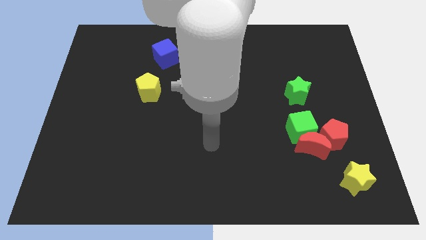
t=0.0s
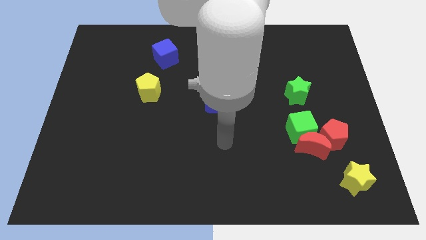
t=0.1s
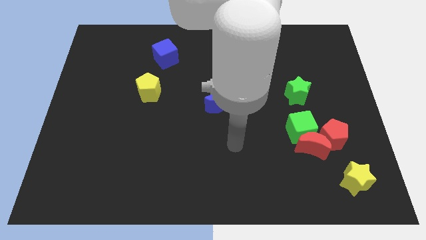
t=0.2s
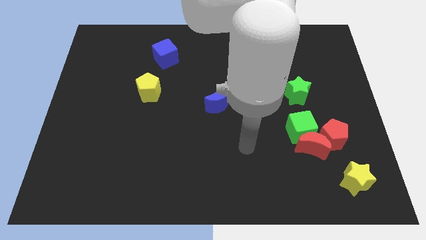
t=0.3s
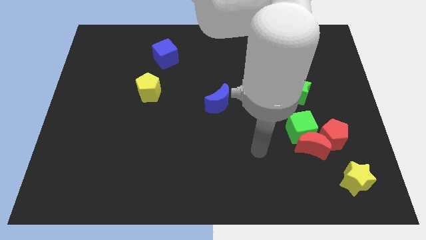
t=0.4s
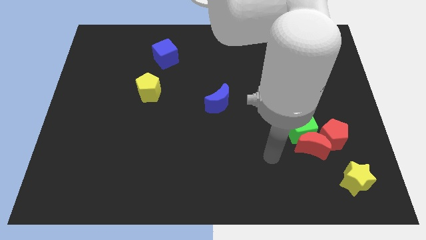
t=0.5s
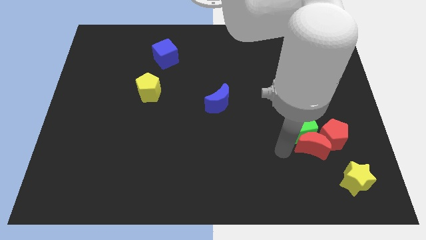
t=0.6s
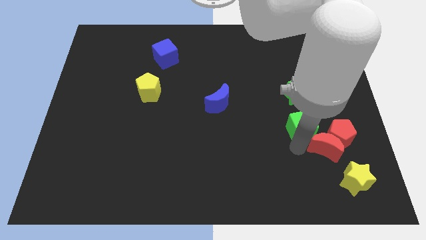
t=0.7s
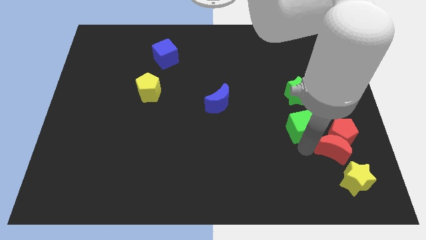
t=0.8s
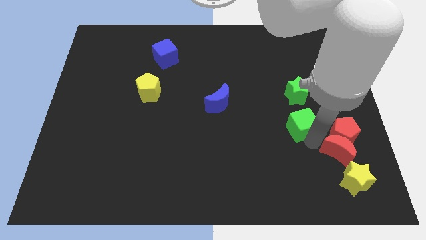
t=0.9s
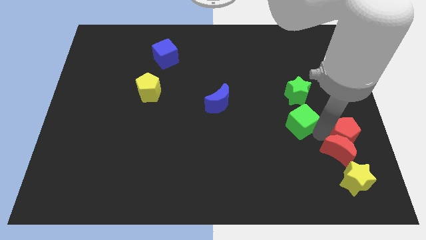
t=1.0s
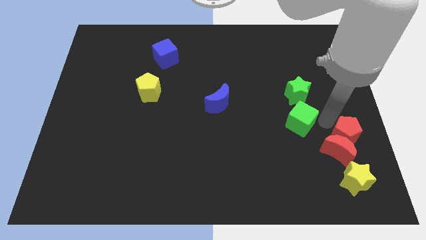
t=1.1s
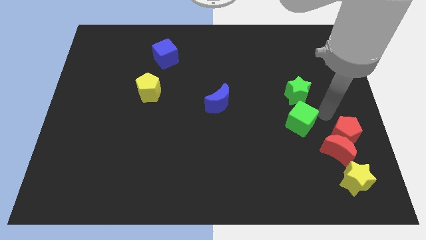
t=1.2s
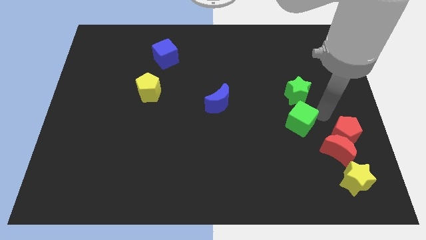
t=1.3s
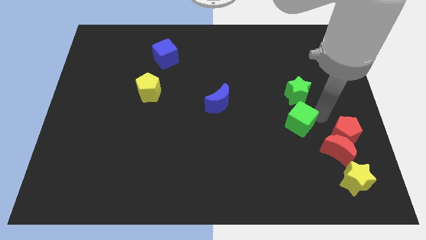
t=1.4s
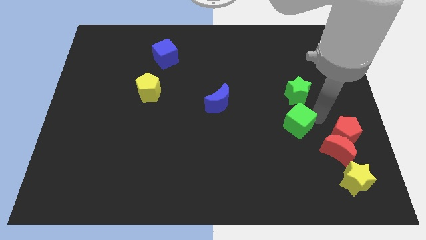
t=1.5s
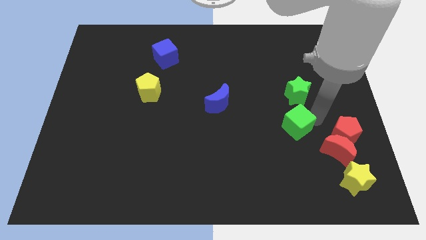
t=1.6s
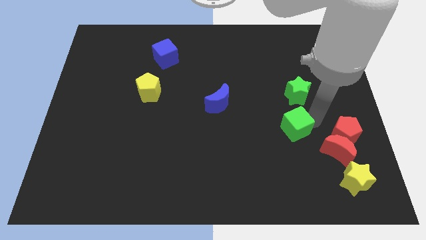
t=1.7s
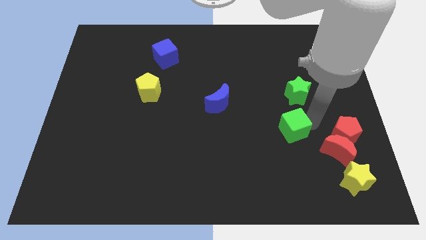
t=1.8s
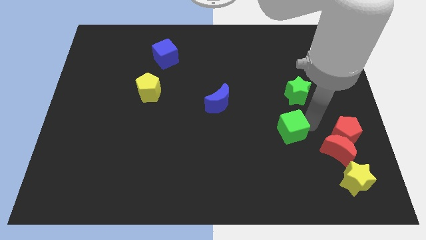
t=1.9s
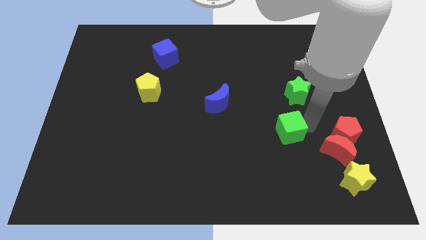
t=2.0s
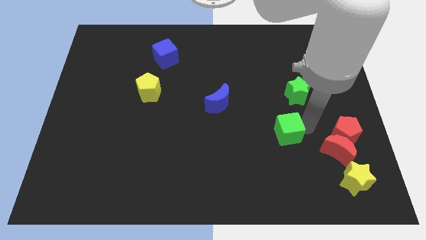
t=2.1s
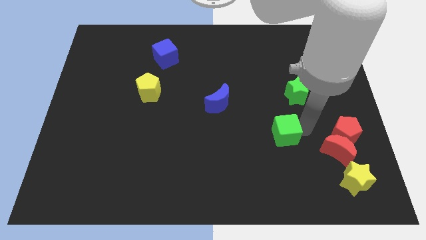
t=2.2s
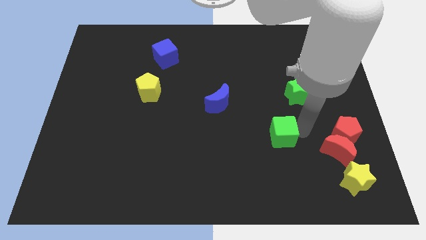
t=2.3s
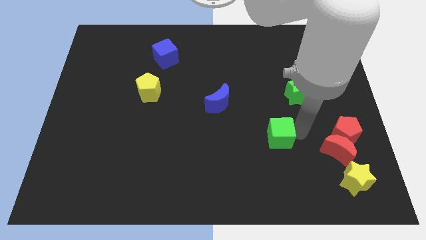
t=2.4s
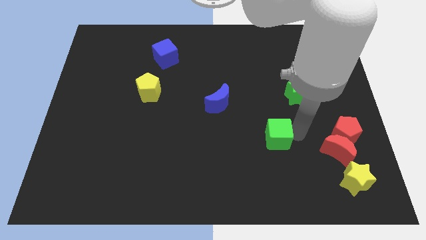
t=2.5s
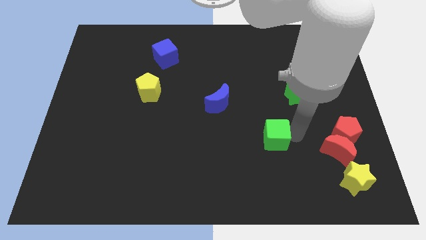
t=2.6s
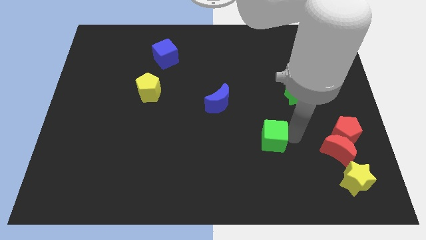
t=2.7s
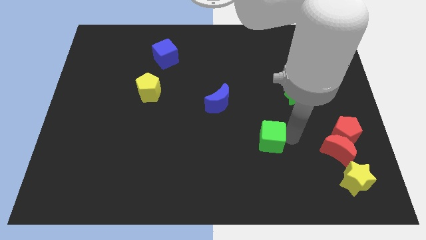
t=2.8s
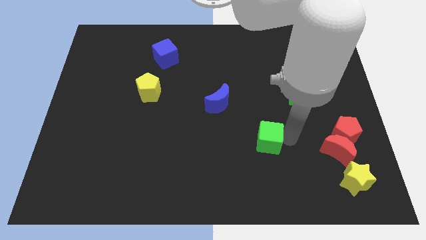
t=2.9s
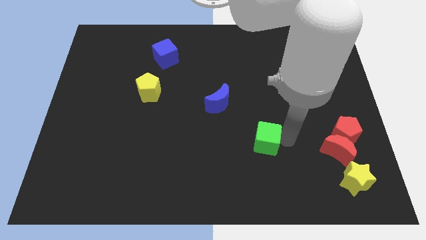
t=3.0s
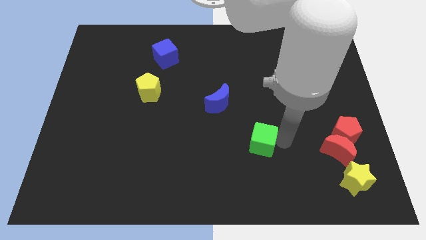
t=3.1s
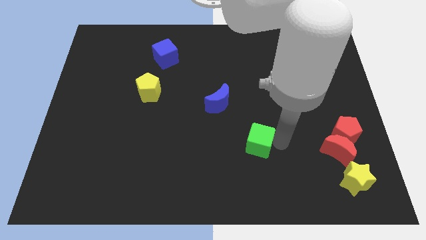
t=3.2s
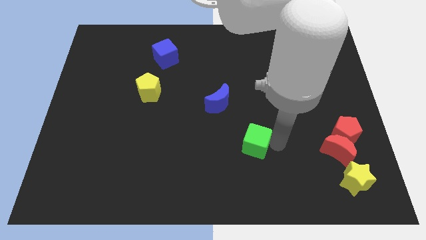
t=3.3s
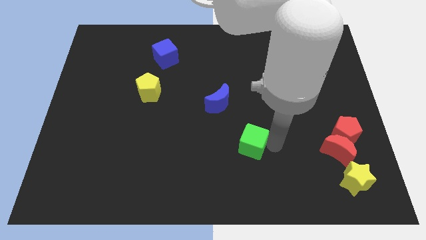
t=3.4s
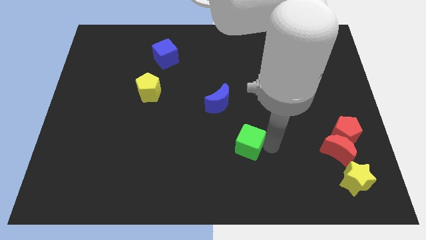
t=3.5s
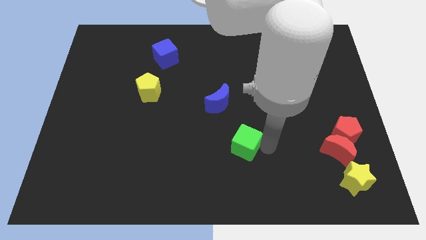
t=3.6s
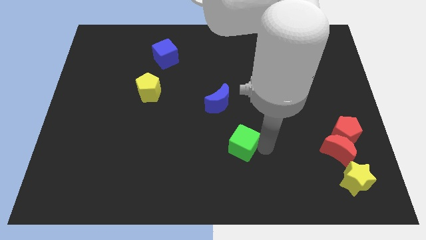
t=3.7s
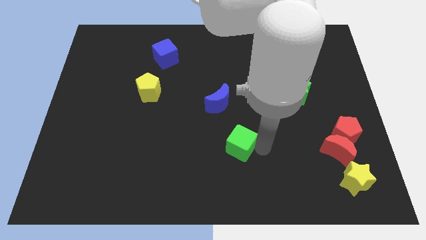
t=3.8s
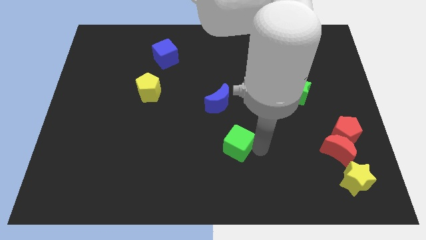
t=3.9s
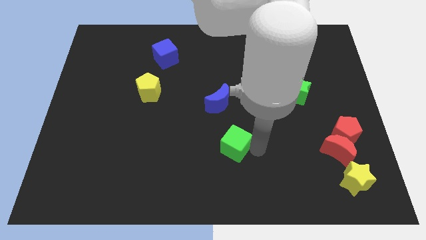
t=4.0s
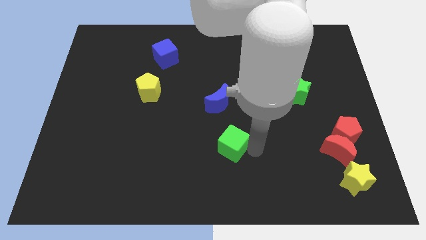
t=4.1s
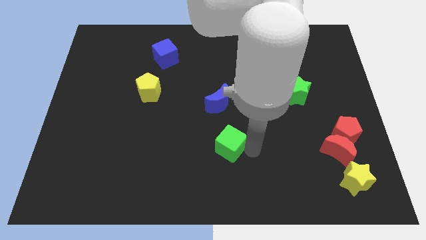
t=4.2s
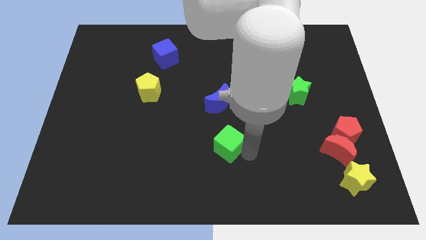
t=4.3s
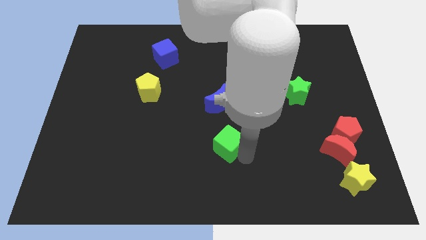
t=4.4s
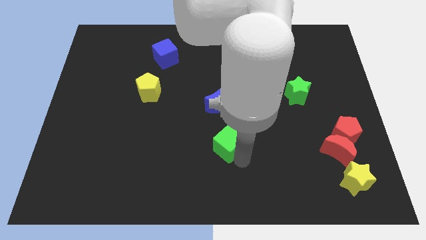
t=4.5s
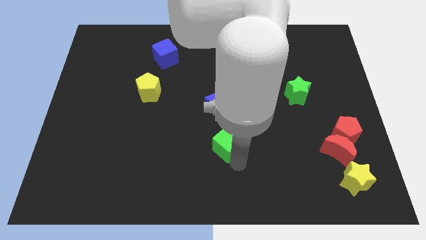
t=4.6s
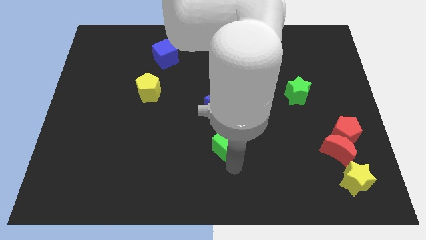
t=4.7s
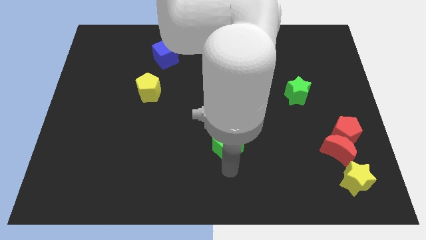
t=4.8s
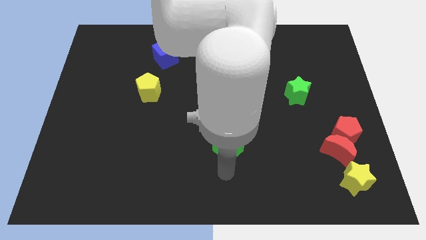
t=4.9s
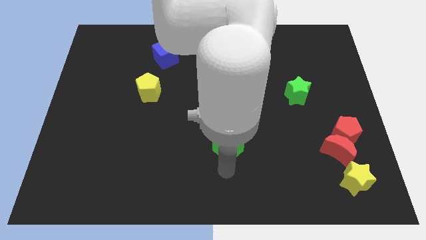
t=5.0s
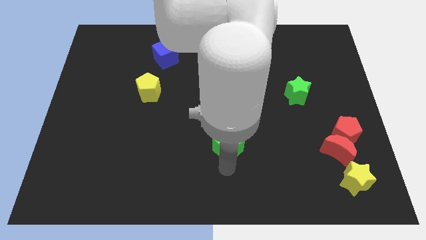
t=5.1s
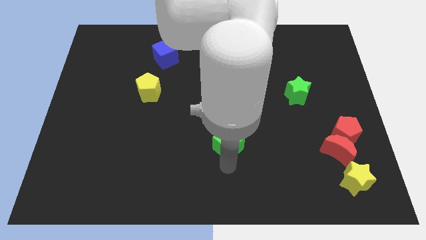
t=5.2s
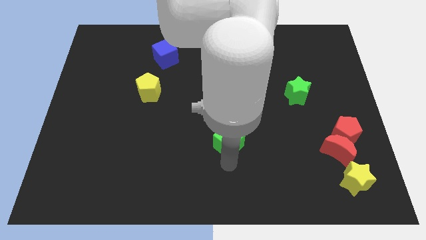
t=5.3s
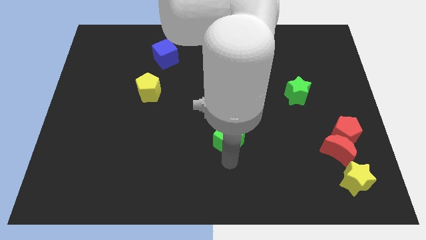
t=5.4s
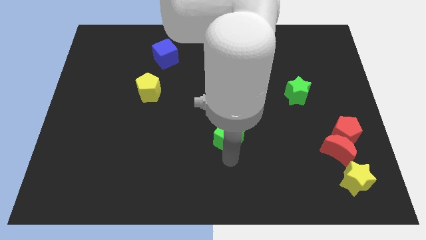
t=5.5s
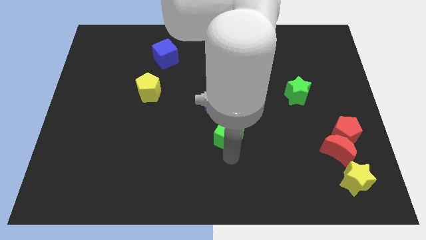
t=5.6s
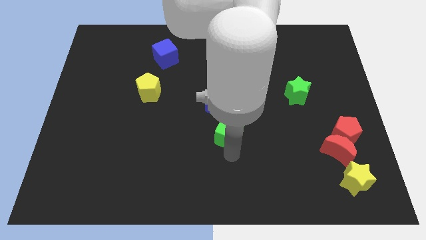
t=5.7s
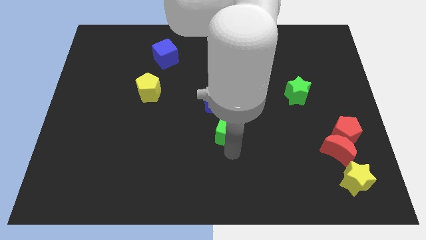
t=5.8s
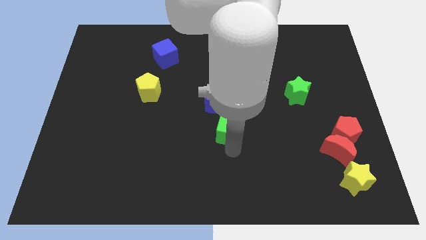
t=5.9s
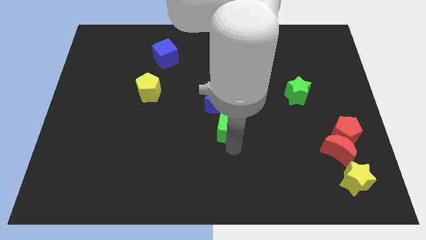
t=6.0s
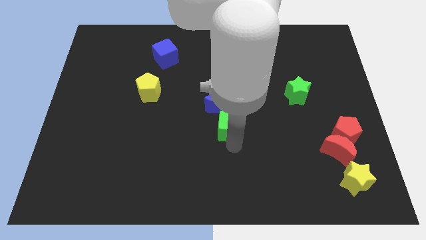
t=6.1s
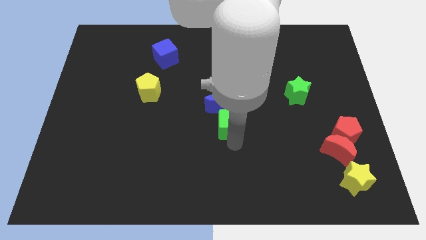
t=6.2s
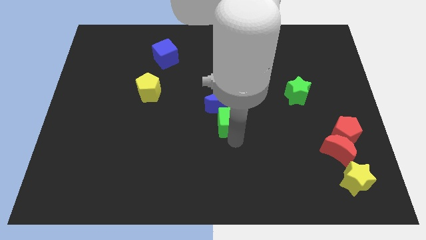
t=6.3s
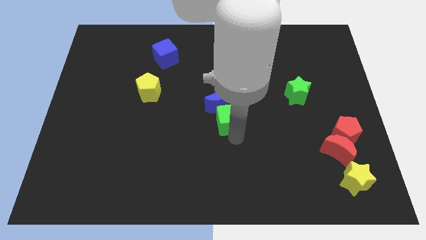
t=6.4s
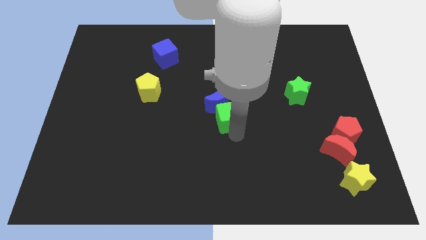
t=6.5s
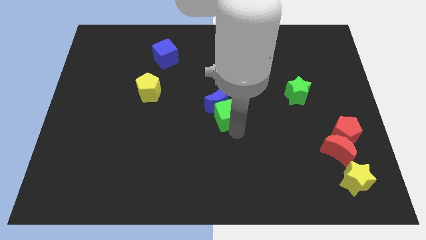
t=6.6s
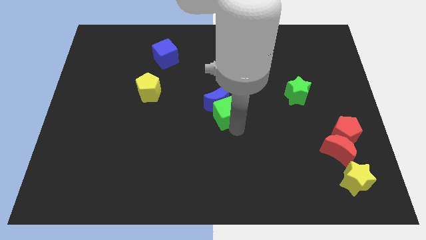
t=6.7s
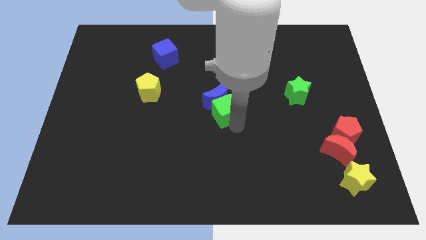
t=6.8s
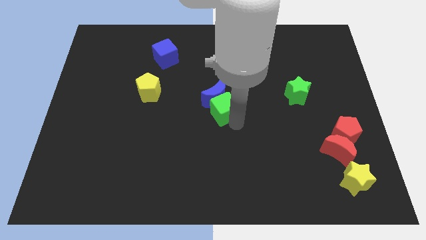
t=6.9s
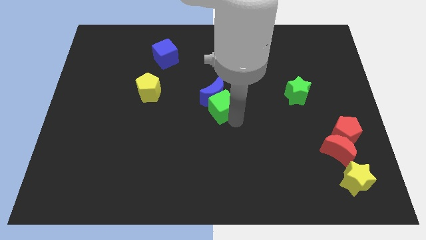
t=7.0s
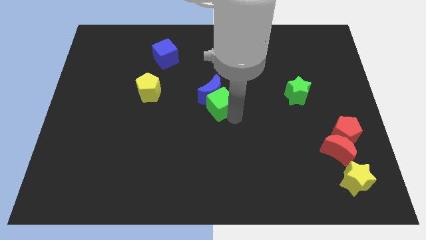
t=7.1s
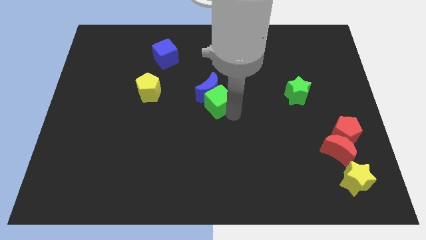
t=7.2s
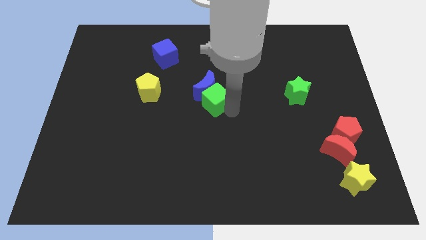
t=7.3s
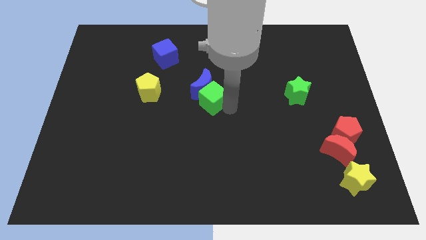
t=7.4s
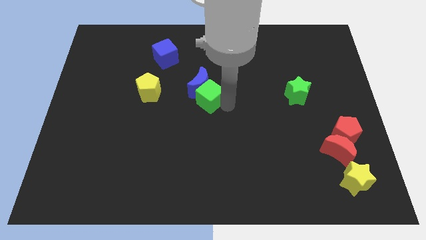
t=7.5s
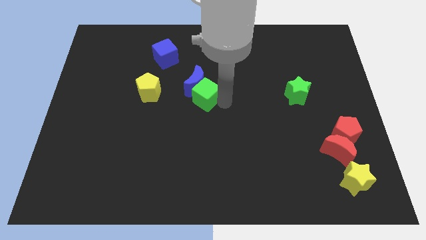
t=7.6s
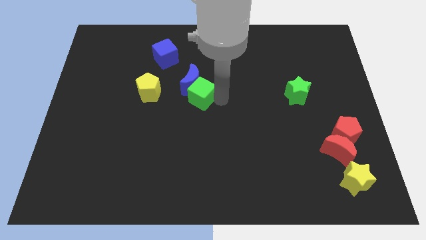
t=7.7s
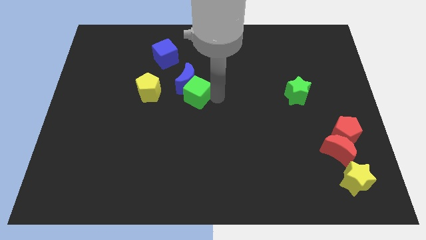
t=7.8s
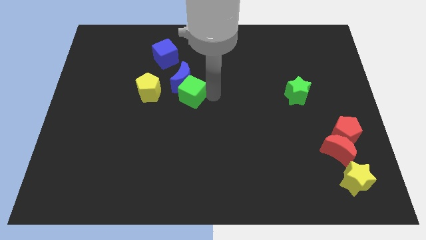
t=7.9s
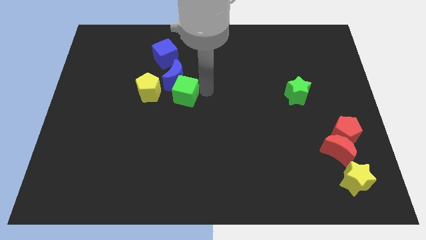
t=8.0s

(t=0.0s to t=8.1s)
push the green cube to the left
